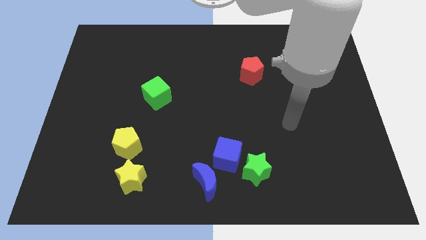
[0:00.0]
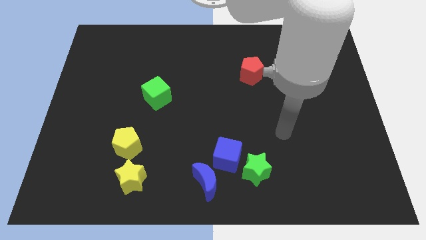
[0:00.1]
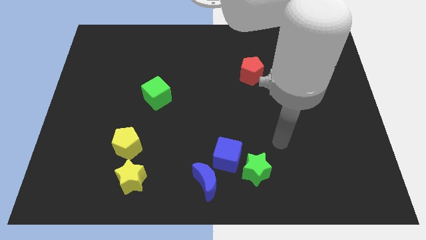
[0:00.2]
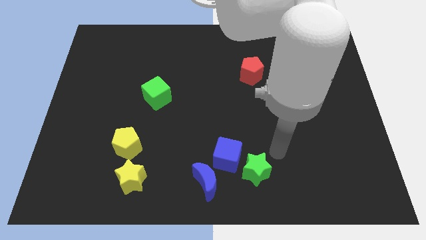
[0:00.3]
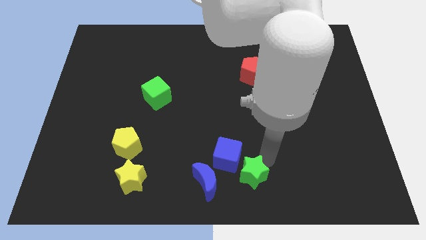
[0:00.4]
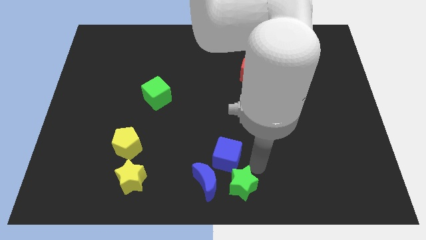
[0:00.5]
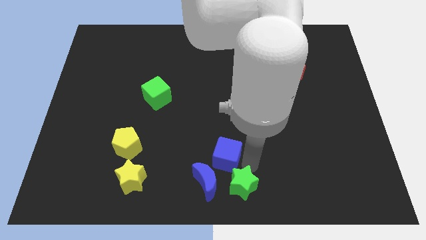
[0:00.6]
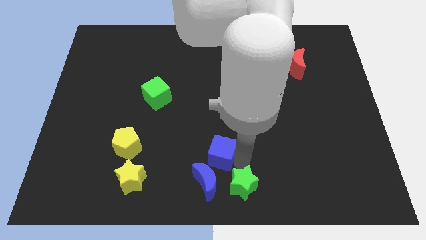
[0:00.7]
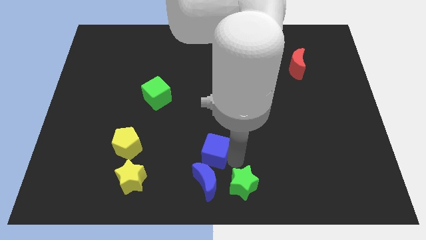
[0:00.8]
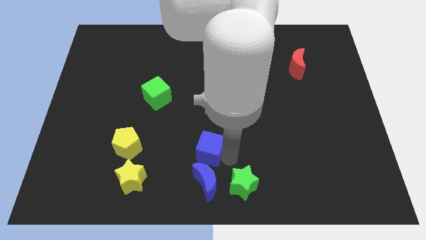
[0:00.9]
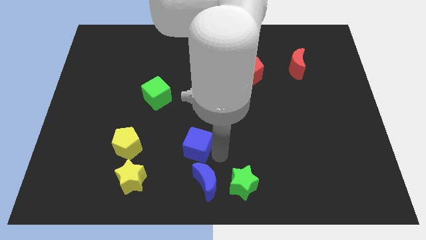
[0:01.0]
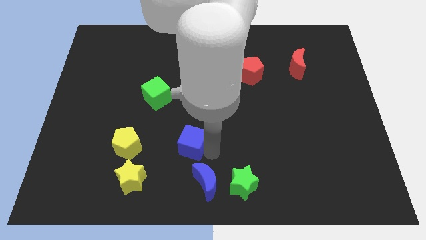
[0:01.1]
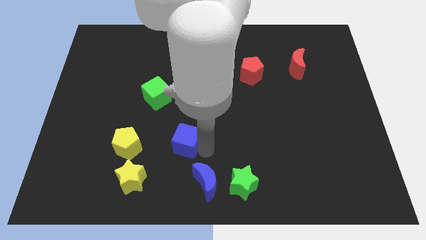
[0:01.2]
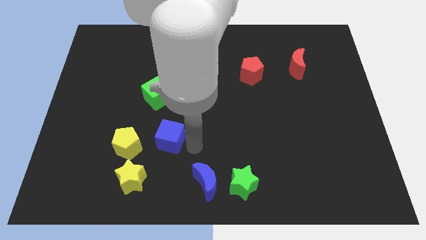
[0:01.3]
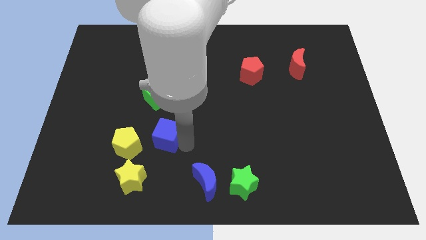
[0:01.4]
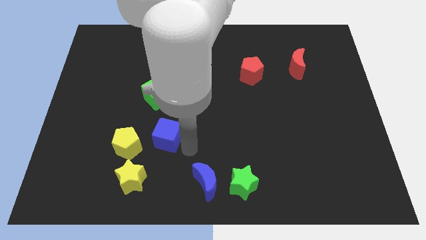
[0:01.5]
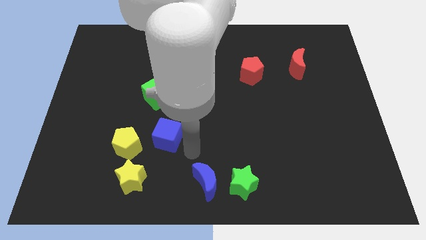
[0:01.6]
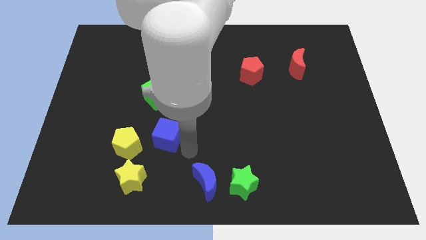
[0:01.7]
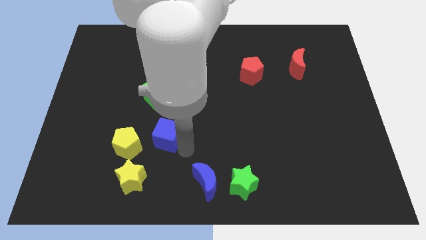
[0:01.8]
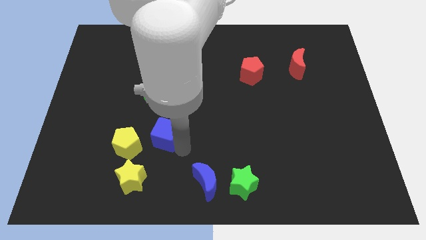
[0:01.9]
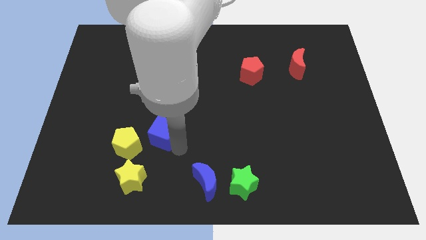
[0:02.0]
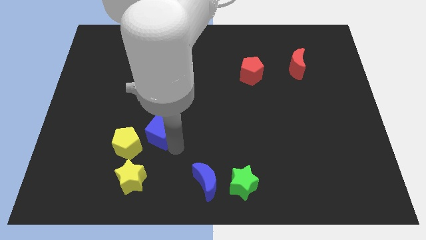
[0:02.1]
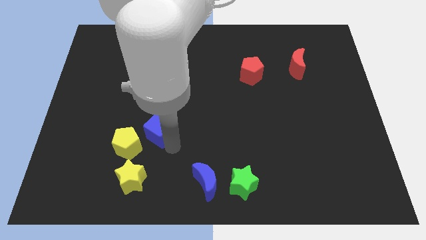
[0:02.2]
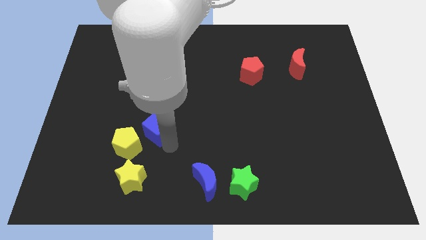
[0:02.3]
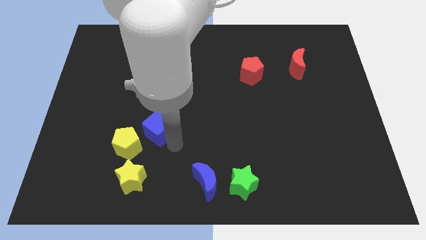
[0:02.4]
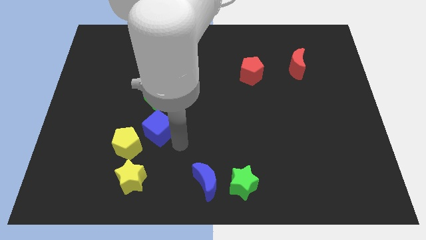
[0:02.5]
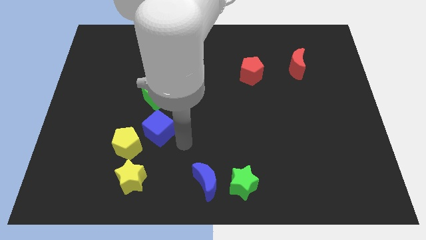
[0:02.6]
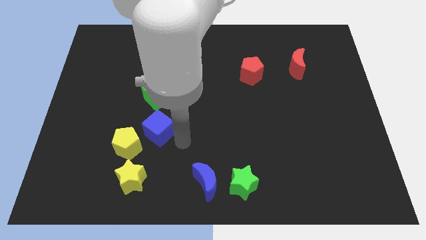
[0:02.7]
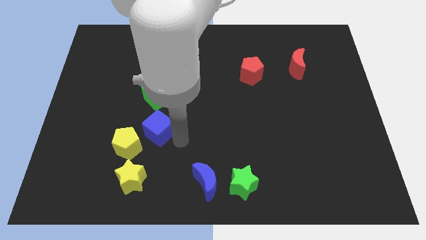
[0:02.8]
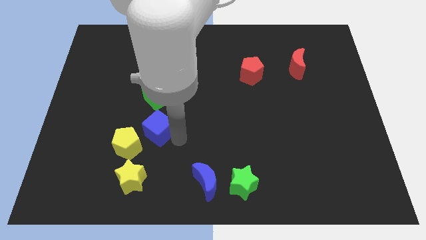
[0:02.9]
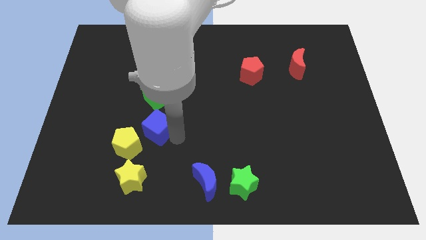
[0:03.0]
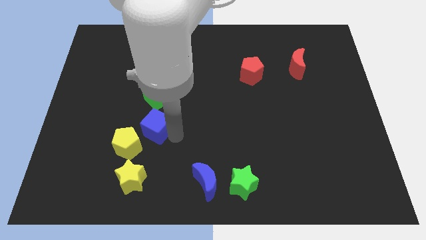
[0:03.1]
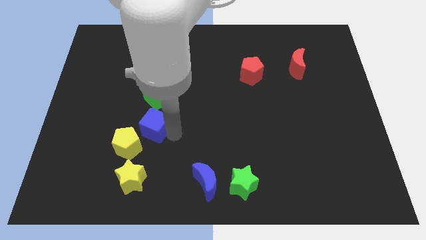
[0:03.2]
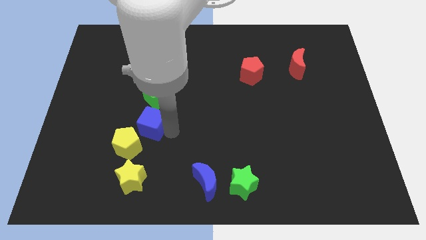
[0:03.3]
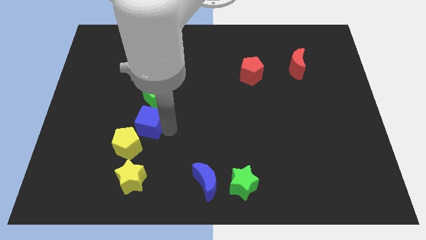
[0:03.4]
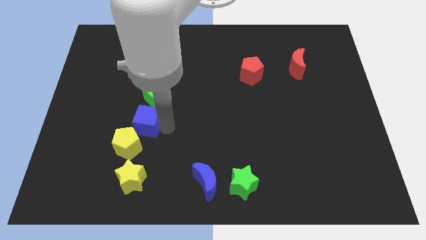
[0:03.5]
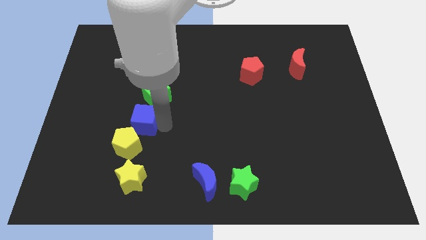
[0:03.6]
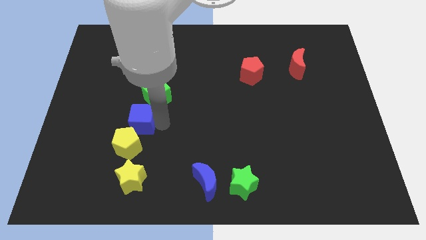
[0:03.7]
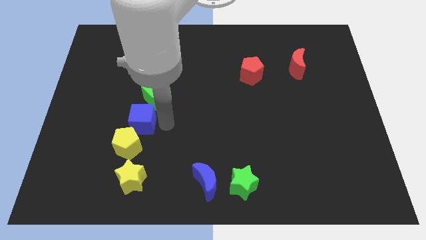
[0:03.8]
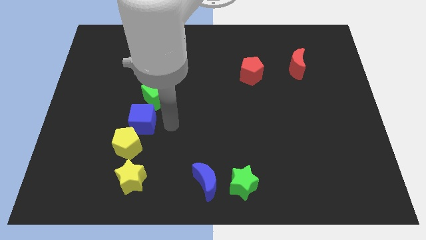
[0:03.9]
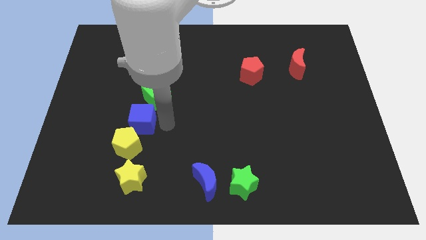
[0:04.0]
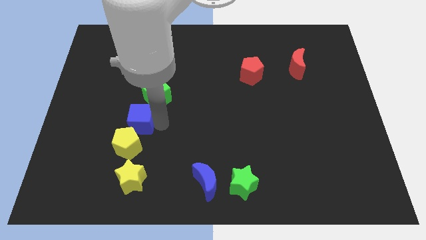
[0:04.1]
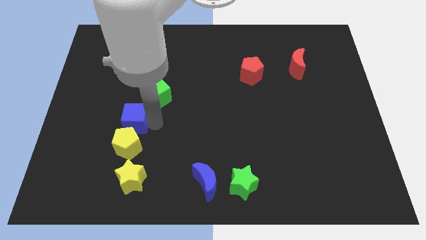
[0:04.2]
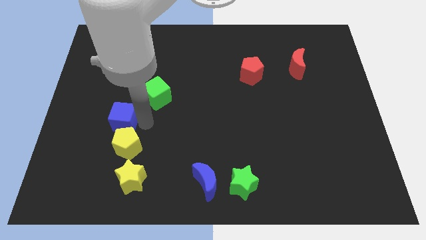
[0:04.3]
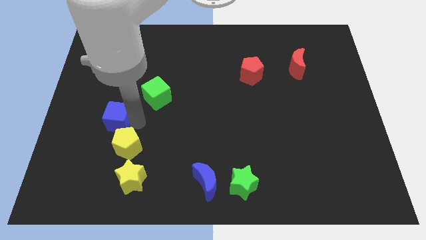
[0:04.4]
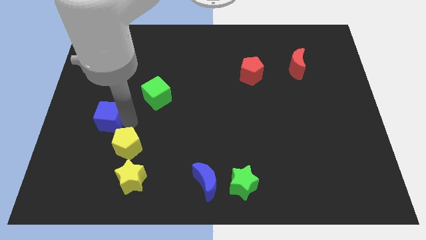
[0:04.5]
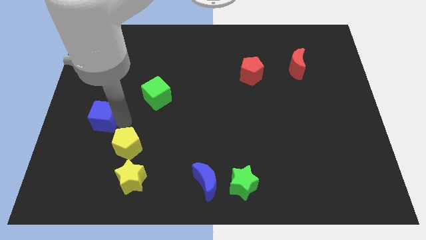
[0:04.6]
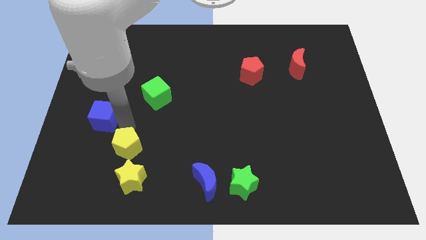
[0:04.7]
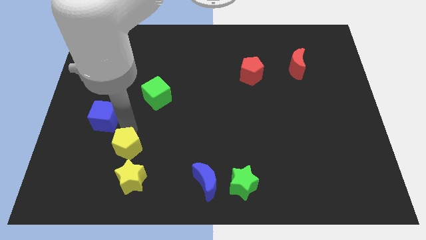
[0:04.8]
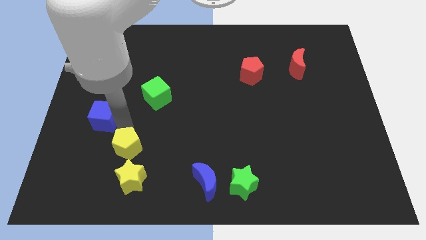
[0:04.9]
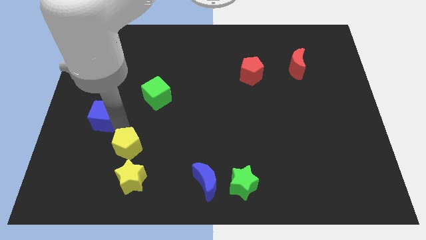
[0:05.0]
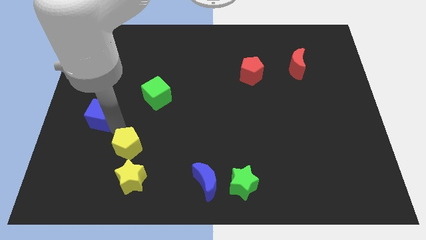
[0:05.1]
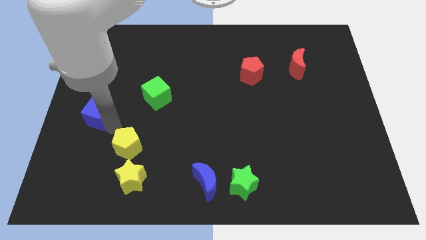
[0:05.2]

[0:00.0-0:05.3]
slide the blue cube to the center left

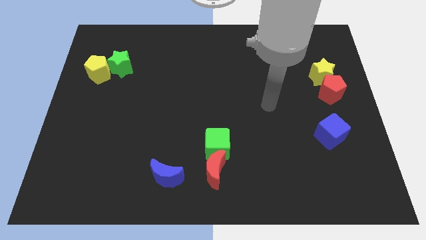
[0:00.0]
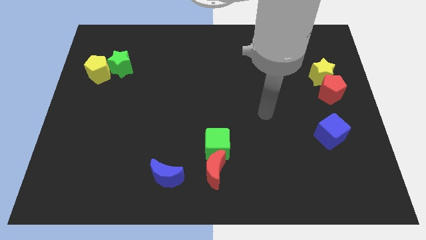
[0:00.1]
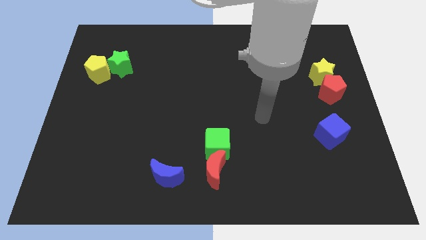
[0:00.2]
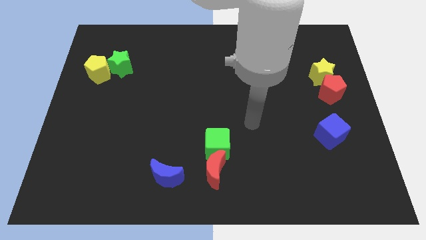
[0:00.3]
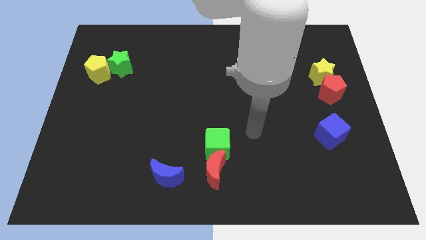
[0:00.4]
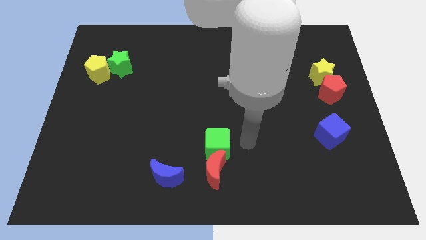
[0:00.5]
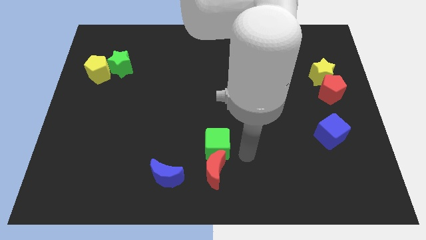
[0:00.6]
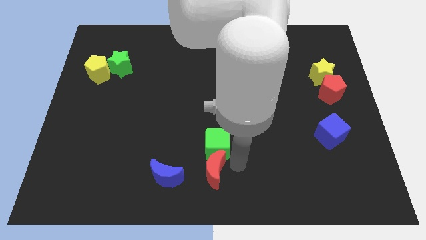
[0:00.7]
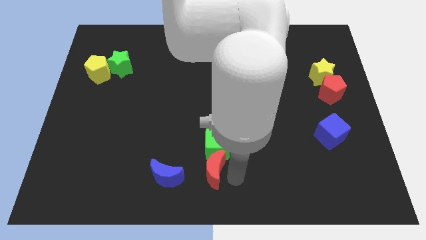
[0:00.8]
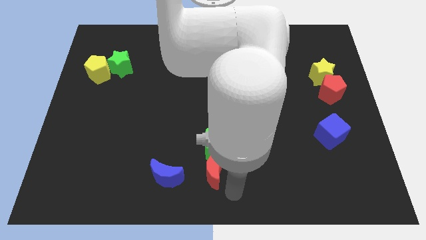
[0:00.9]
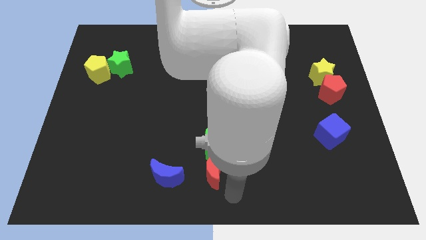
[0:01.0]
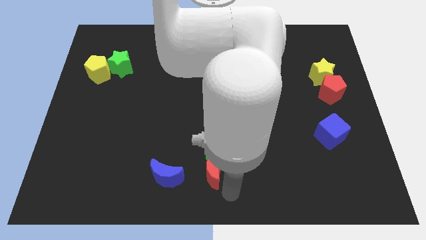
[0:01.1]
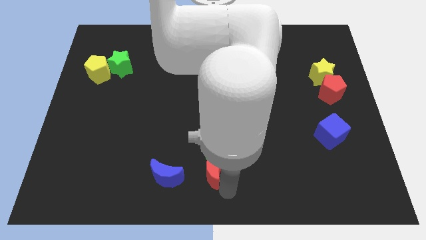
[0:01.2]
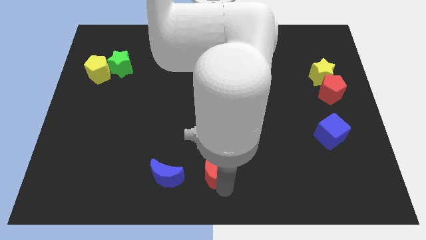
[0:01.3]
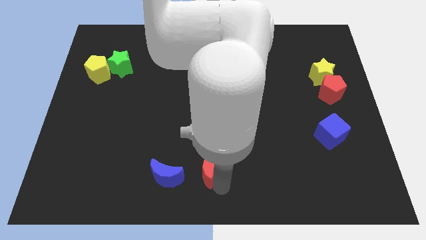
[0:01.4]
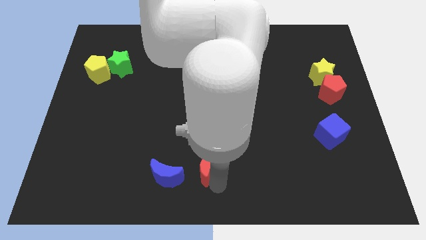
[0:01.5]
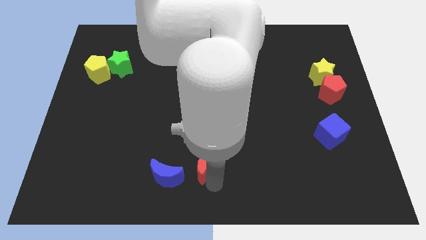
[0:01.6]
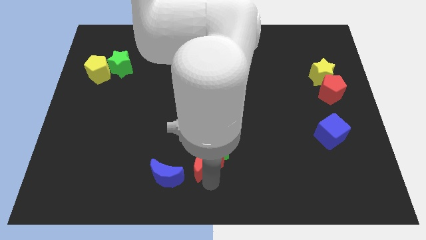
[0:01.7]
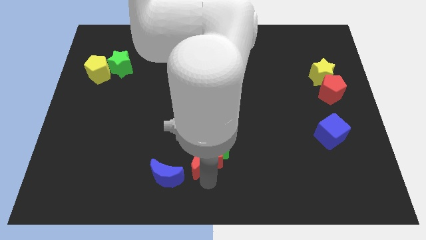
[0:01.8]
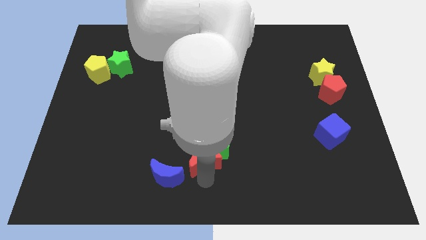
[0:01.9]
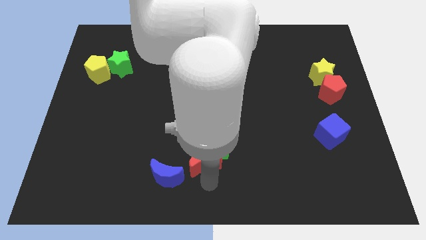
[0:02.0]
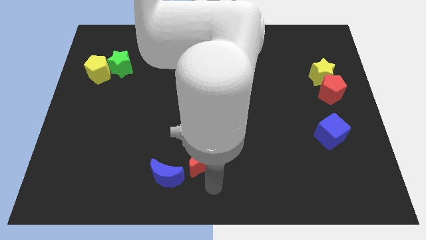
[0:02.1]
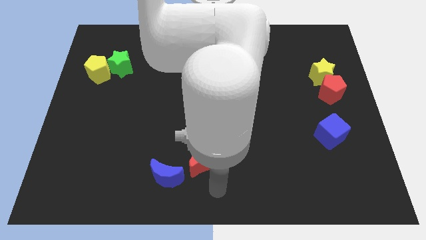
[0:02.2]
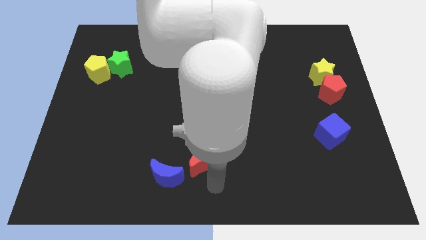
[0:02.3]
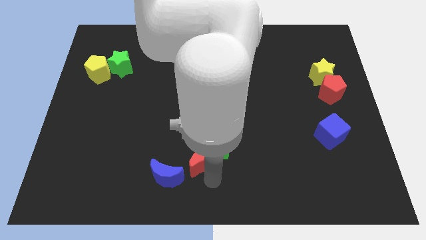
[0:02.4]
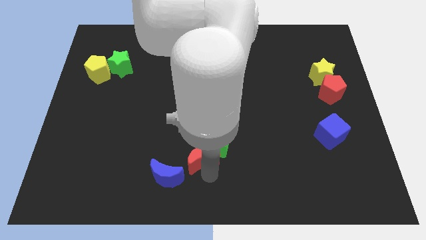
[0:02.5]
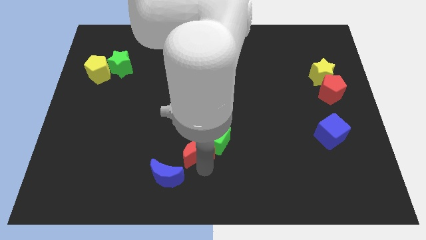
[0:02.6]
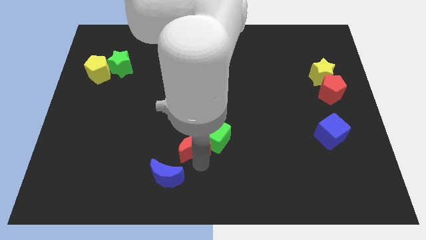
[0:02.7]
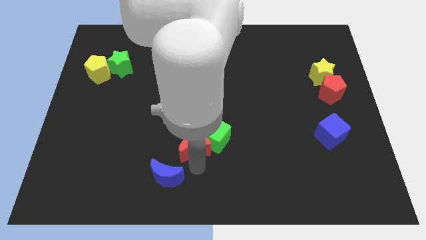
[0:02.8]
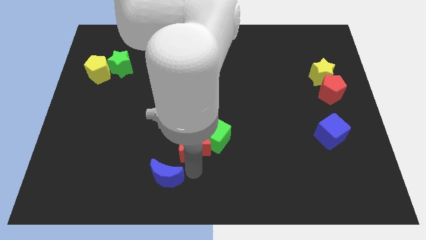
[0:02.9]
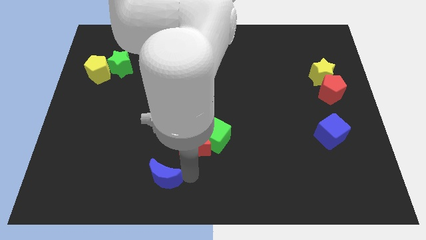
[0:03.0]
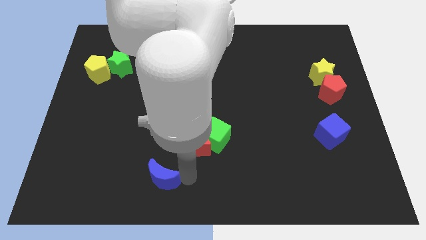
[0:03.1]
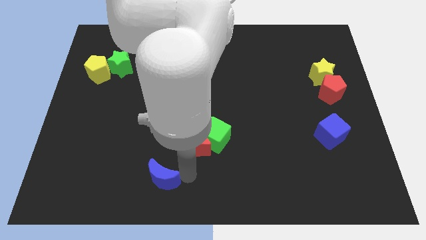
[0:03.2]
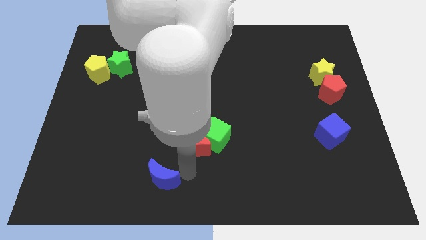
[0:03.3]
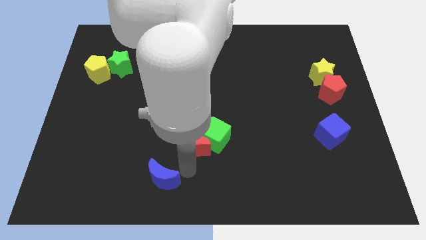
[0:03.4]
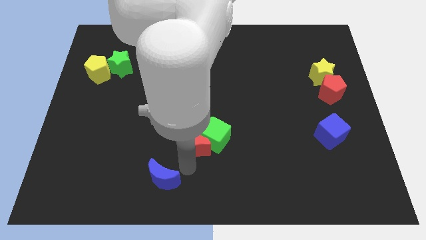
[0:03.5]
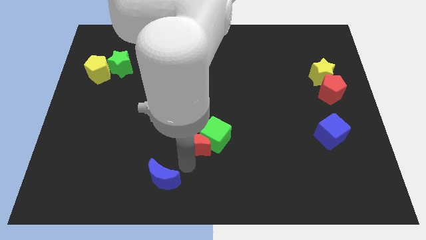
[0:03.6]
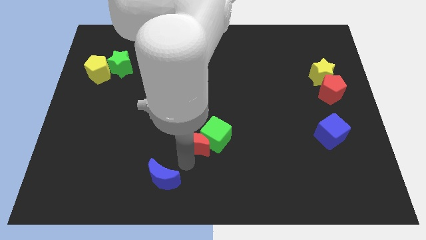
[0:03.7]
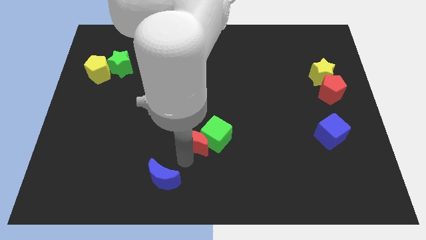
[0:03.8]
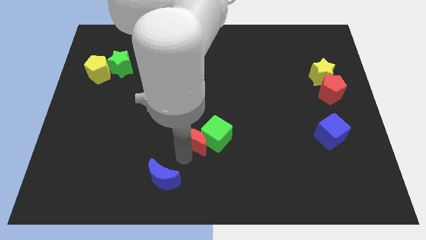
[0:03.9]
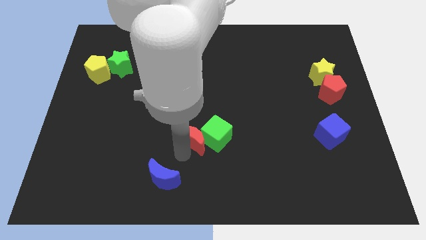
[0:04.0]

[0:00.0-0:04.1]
put the red moon to the center of the board
